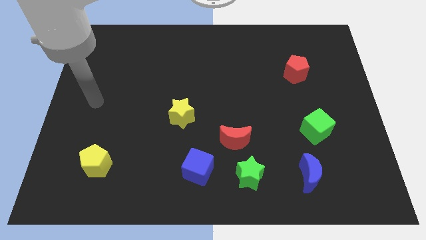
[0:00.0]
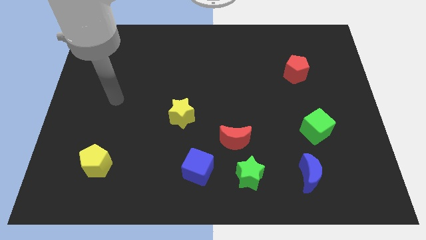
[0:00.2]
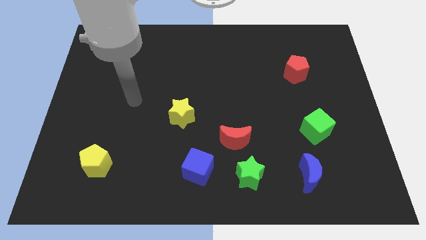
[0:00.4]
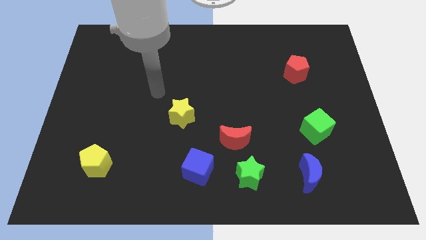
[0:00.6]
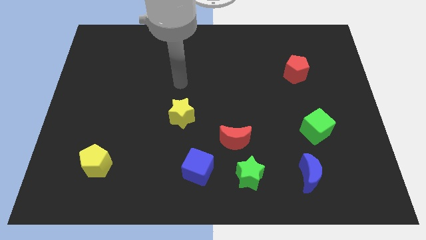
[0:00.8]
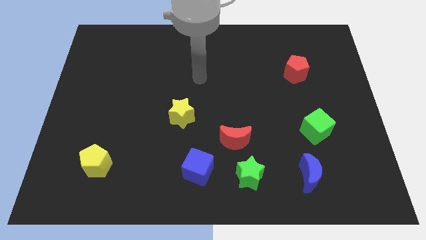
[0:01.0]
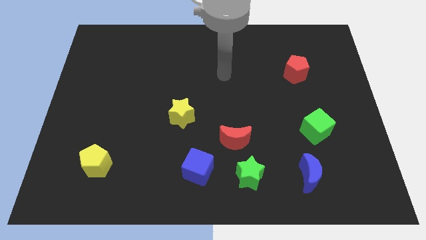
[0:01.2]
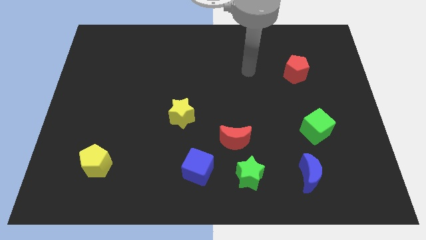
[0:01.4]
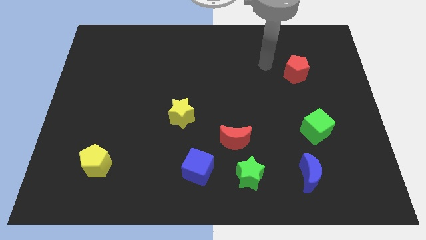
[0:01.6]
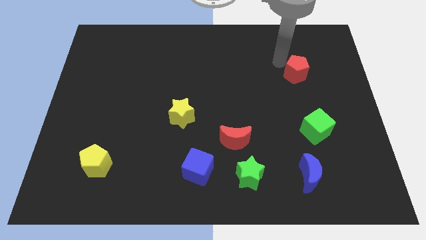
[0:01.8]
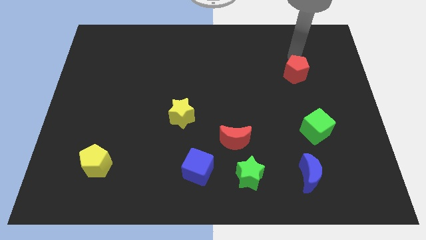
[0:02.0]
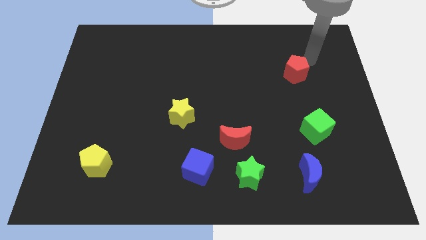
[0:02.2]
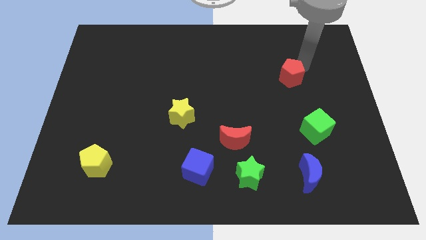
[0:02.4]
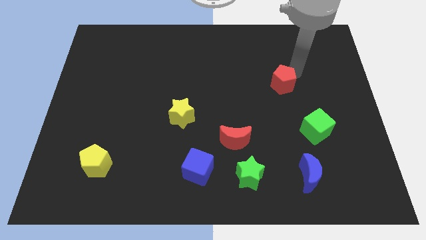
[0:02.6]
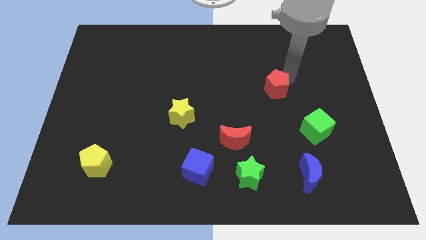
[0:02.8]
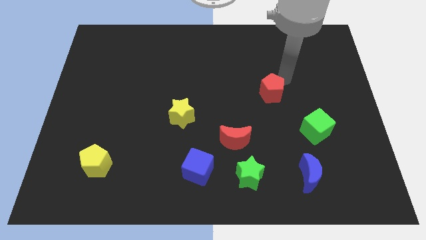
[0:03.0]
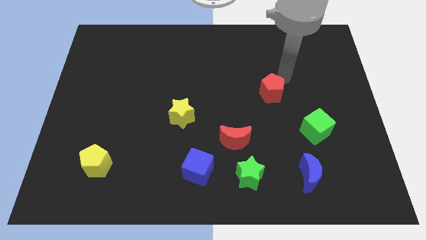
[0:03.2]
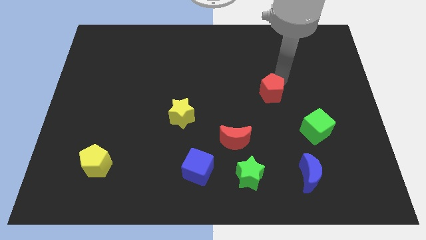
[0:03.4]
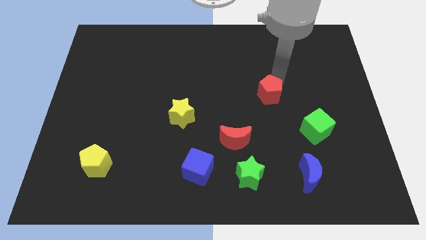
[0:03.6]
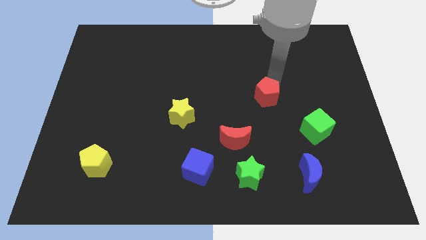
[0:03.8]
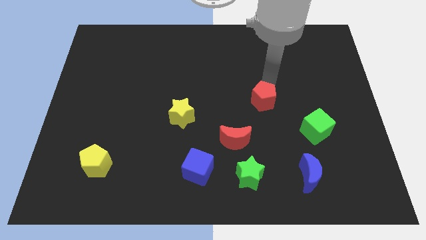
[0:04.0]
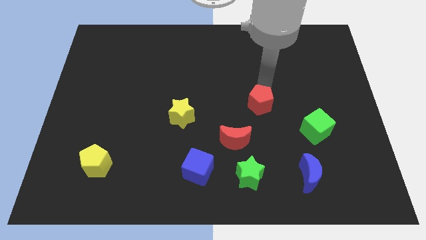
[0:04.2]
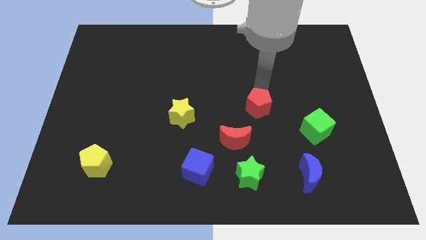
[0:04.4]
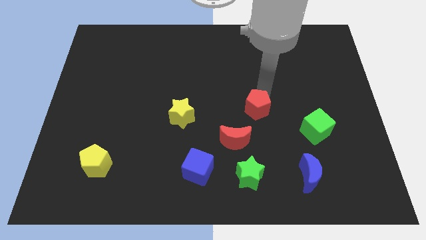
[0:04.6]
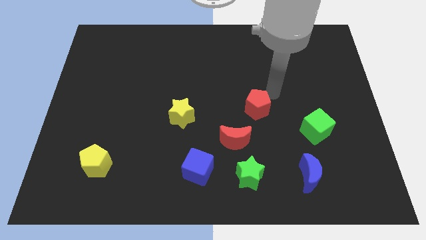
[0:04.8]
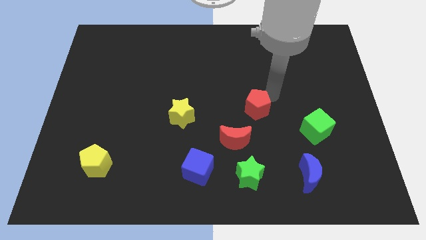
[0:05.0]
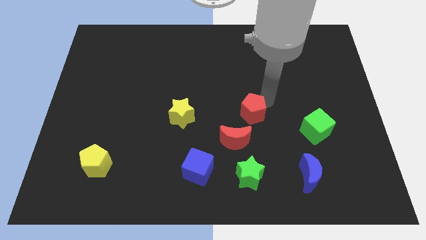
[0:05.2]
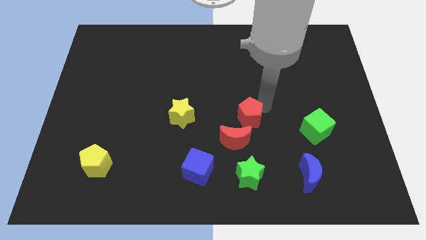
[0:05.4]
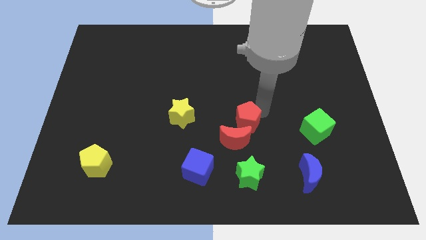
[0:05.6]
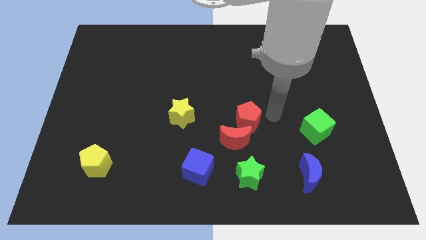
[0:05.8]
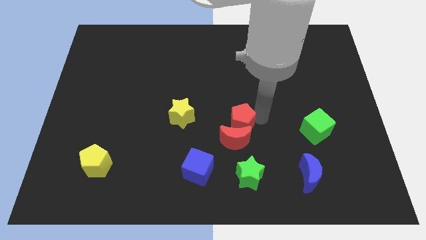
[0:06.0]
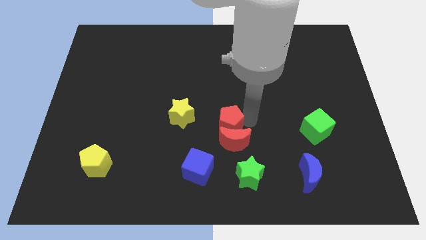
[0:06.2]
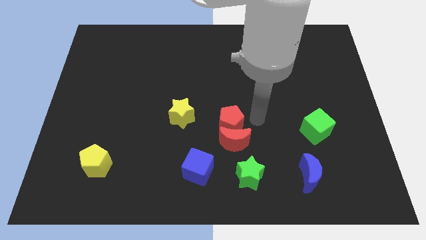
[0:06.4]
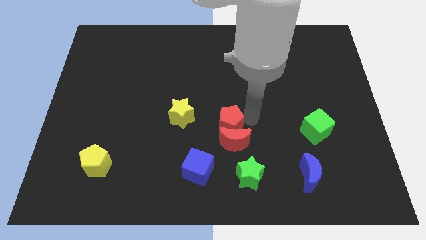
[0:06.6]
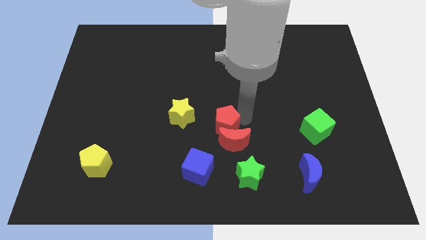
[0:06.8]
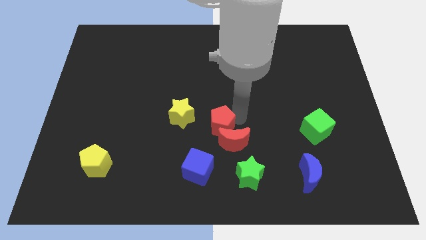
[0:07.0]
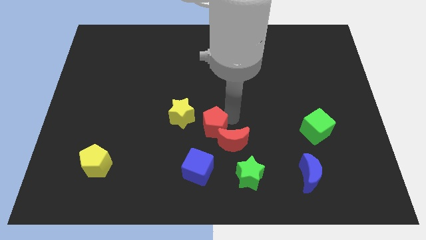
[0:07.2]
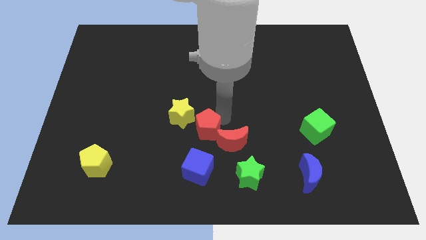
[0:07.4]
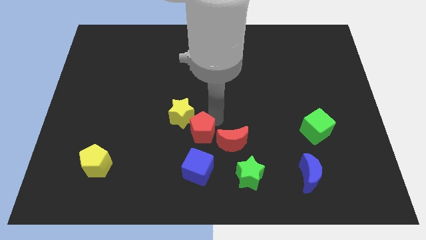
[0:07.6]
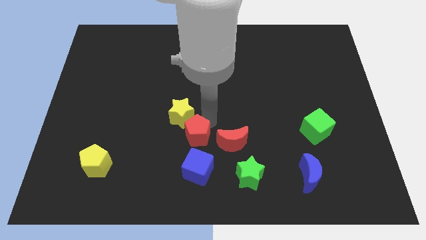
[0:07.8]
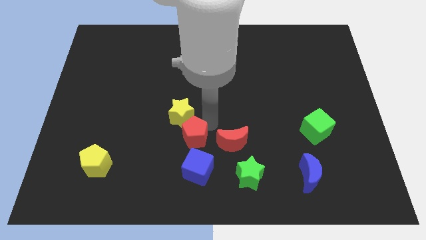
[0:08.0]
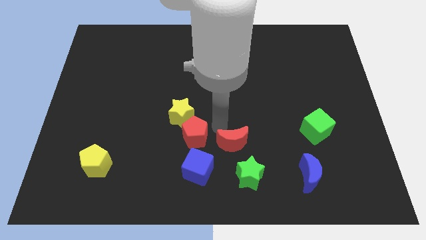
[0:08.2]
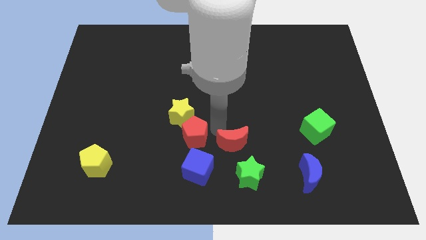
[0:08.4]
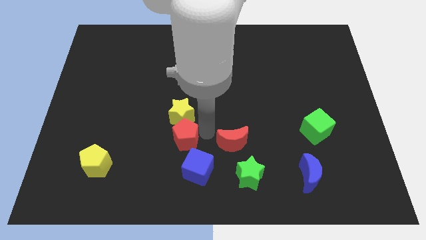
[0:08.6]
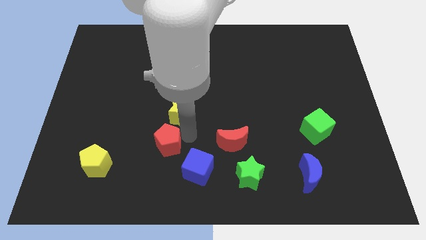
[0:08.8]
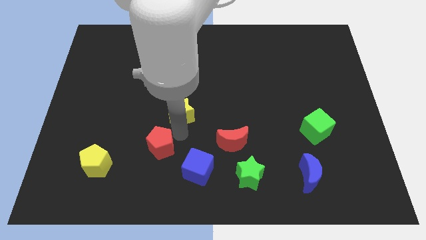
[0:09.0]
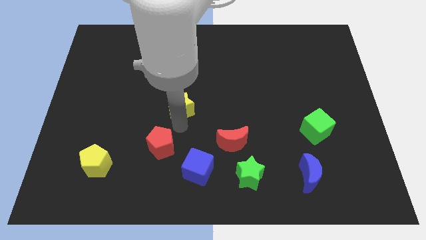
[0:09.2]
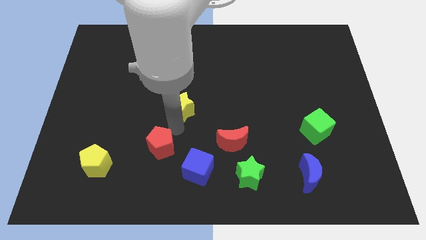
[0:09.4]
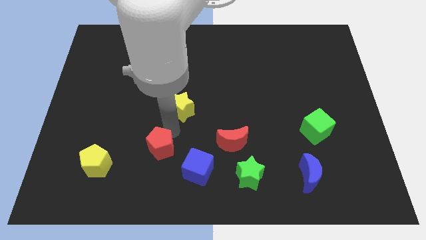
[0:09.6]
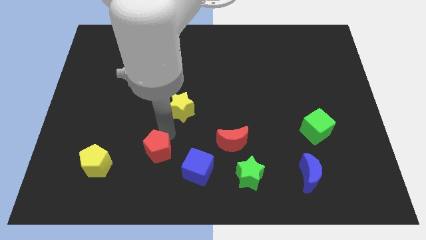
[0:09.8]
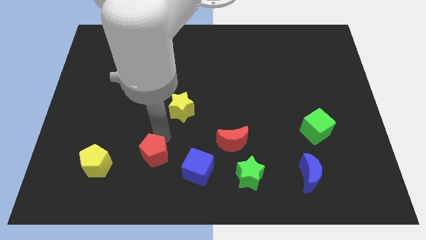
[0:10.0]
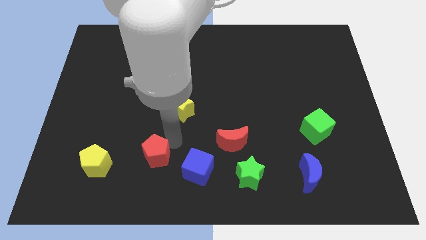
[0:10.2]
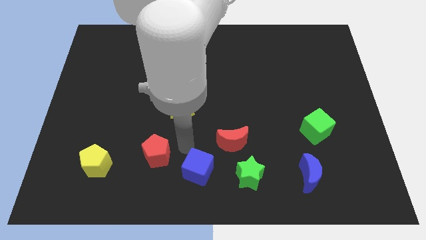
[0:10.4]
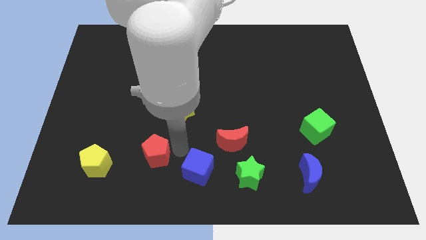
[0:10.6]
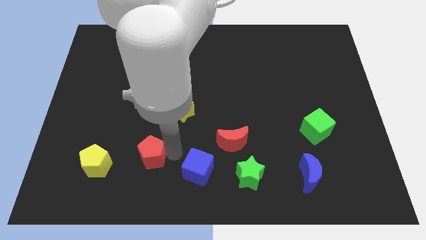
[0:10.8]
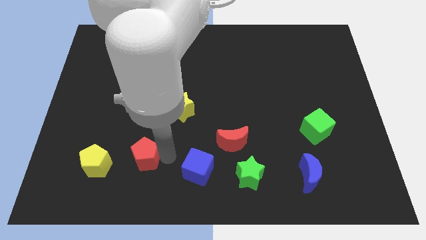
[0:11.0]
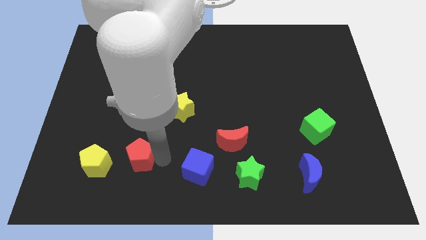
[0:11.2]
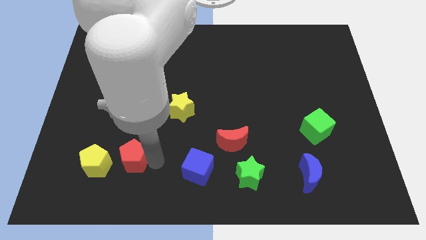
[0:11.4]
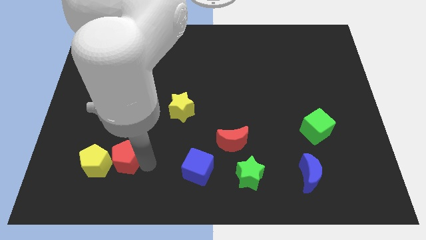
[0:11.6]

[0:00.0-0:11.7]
push the red pentagon to the yellow pentagon

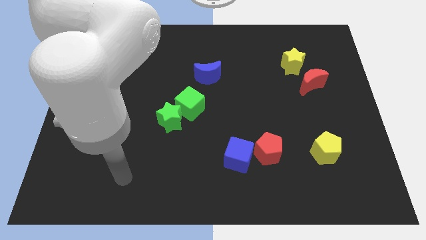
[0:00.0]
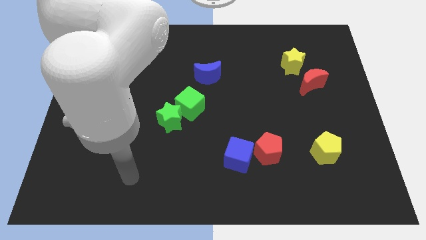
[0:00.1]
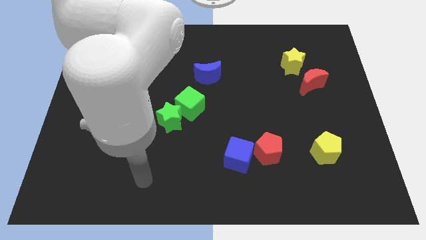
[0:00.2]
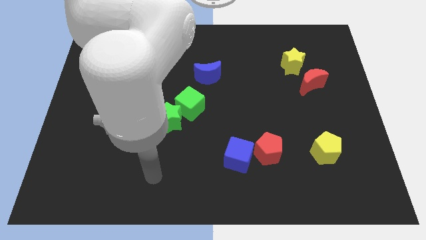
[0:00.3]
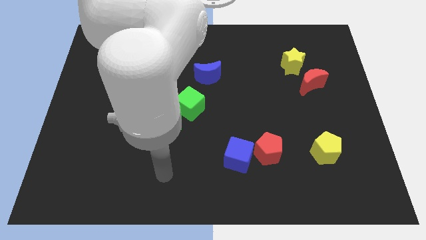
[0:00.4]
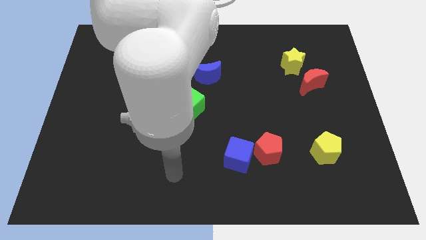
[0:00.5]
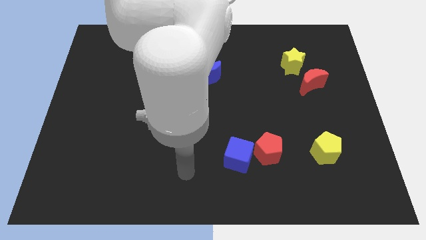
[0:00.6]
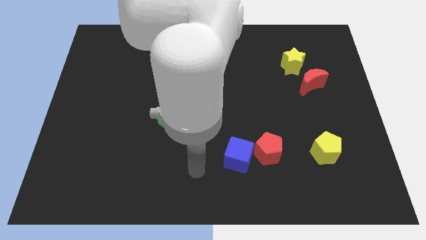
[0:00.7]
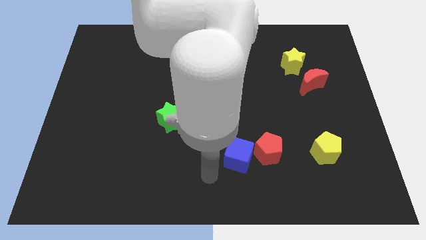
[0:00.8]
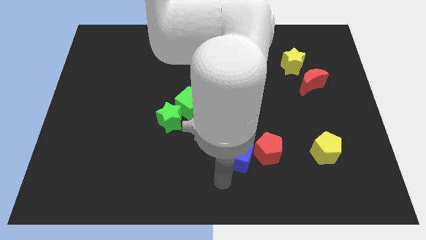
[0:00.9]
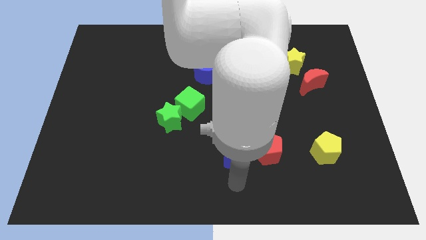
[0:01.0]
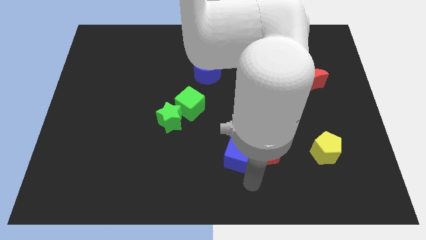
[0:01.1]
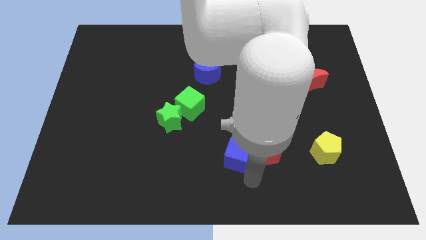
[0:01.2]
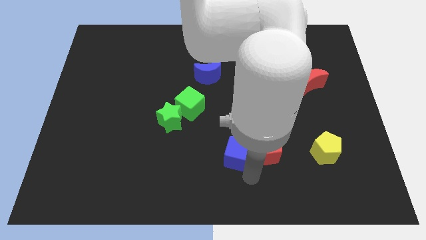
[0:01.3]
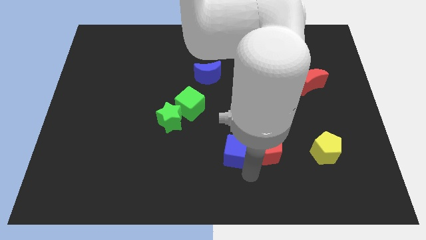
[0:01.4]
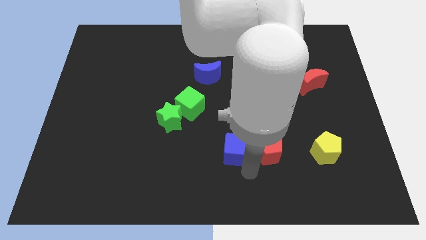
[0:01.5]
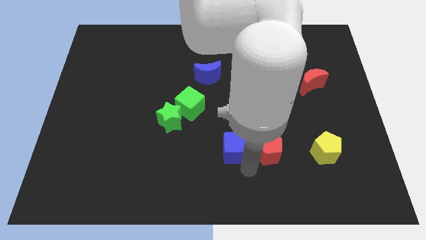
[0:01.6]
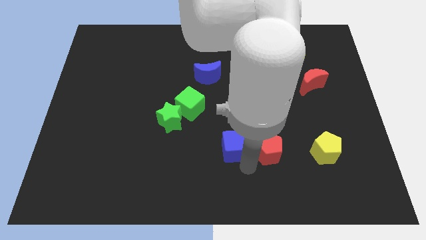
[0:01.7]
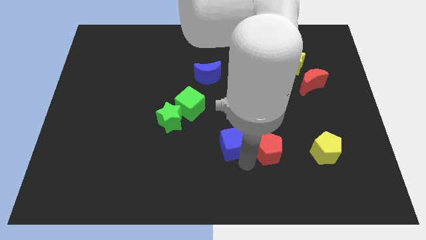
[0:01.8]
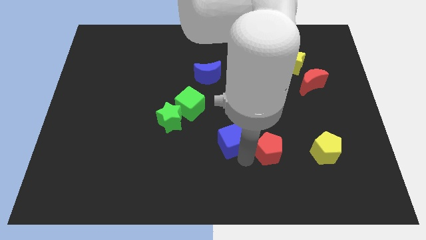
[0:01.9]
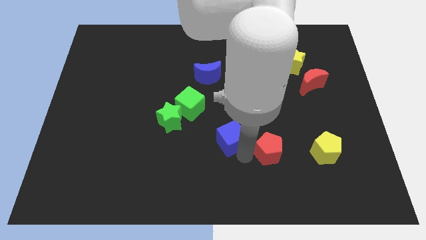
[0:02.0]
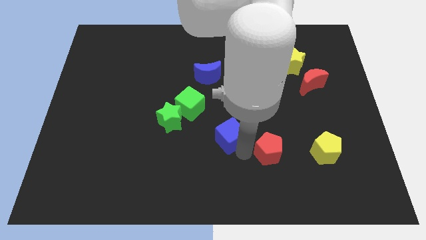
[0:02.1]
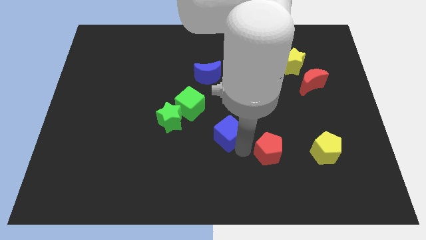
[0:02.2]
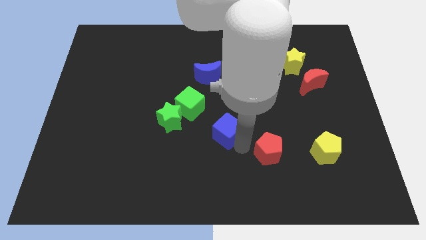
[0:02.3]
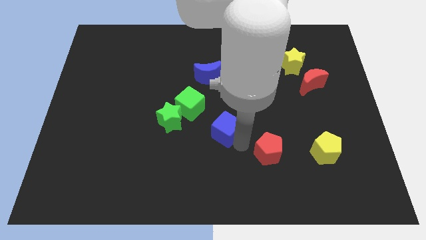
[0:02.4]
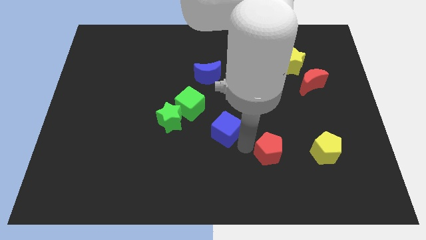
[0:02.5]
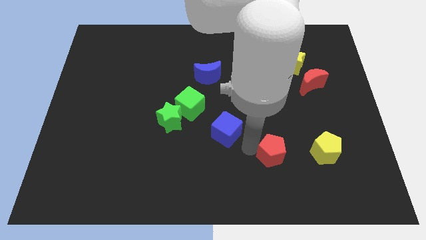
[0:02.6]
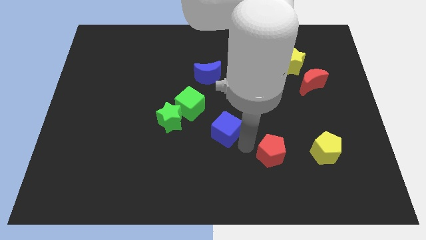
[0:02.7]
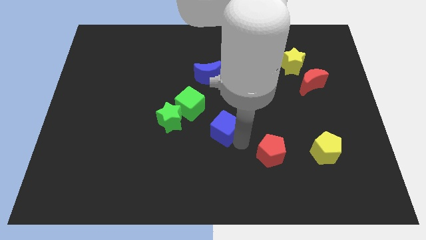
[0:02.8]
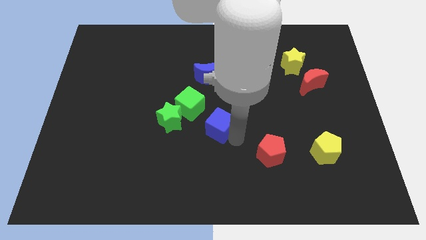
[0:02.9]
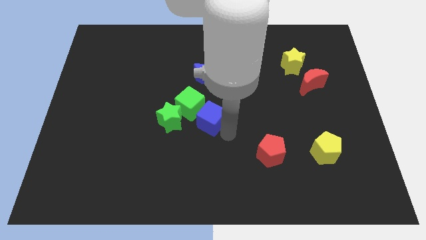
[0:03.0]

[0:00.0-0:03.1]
push the blue cube next to the green cube
